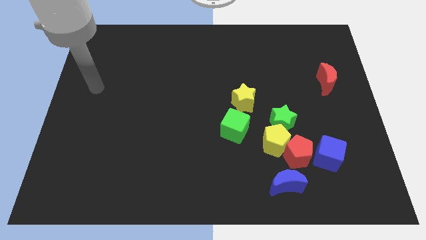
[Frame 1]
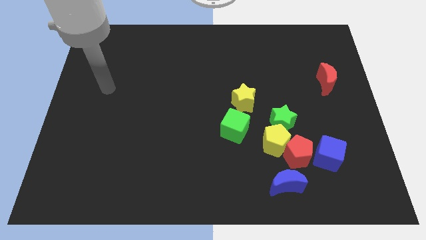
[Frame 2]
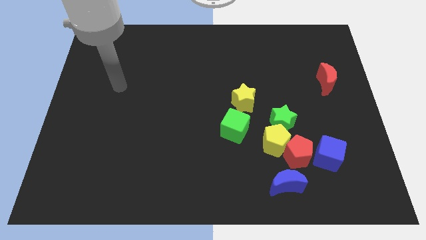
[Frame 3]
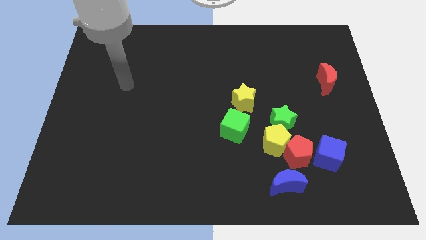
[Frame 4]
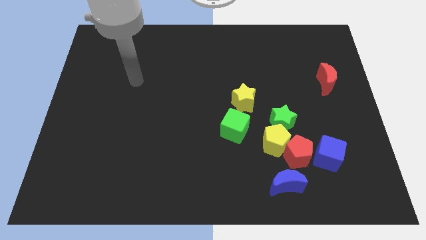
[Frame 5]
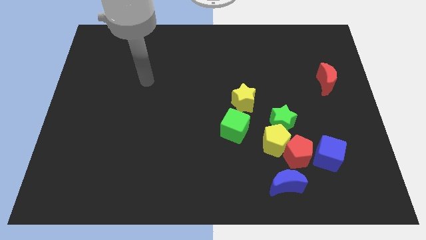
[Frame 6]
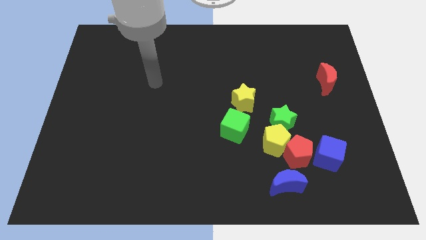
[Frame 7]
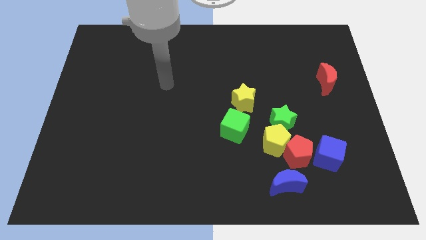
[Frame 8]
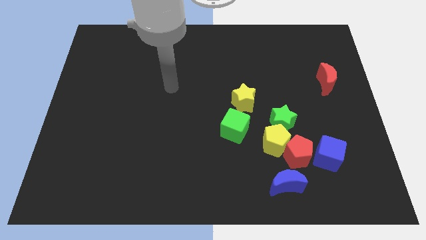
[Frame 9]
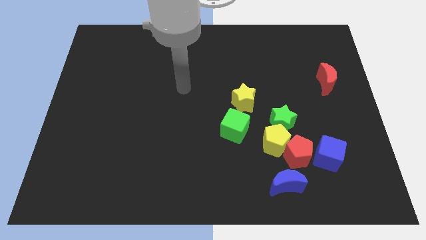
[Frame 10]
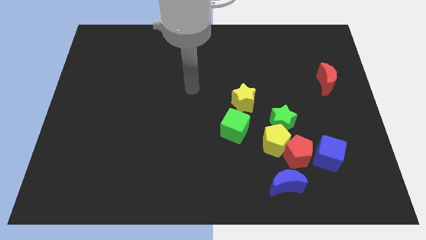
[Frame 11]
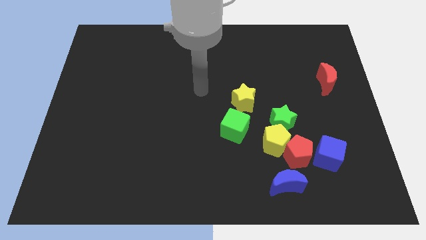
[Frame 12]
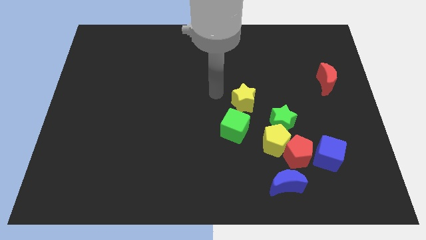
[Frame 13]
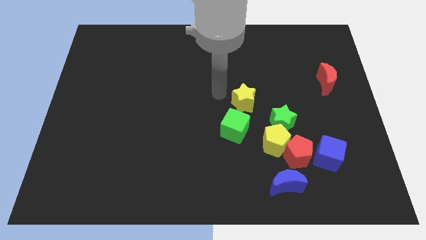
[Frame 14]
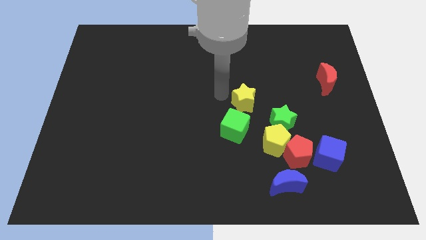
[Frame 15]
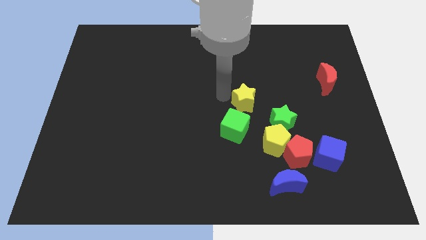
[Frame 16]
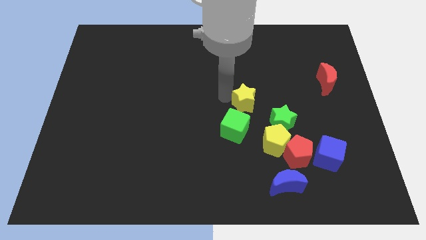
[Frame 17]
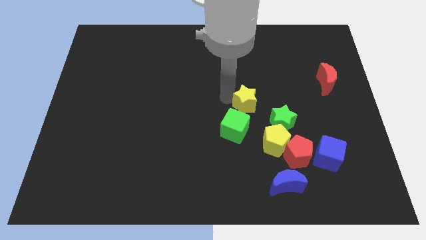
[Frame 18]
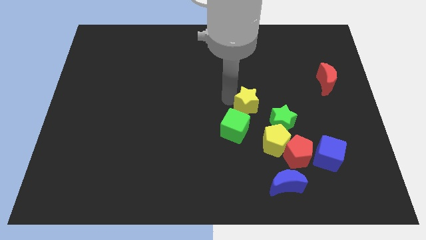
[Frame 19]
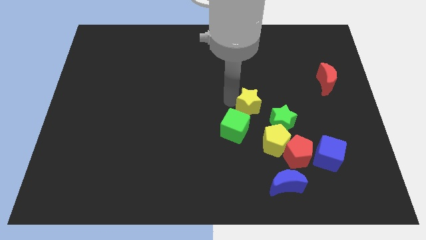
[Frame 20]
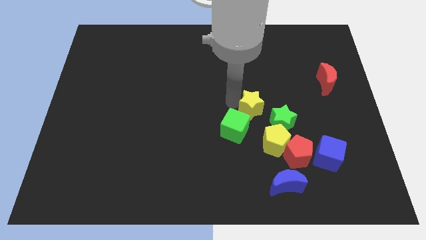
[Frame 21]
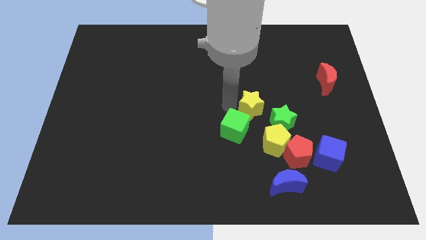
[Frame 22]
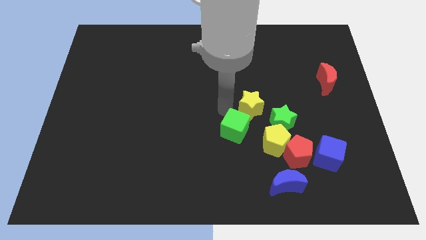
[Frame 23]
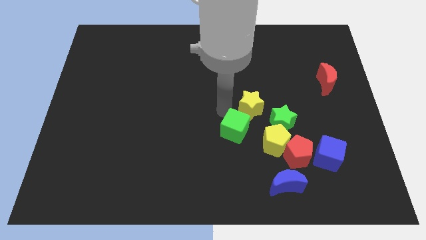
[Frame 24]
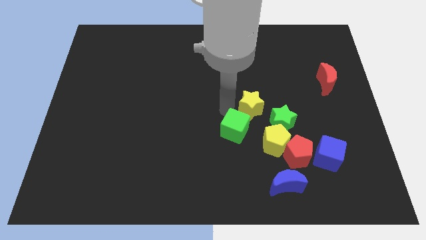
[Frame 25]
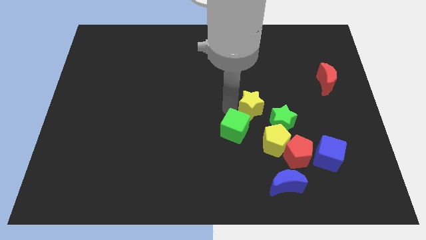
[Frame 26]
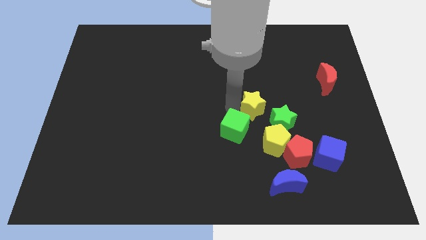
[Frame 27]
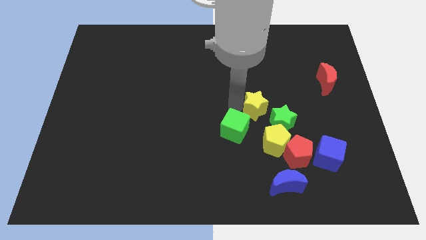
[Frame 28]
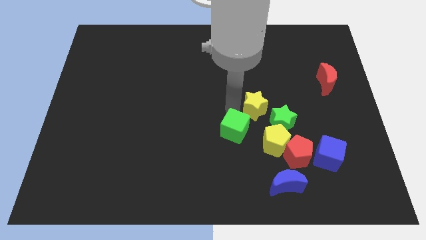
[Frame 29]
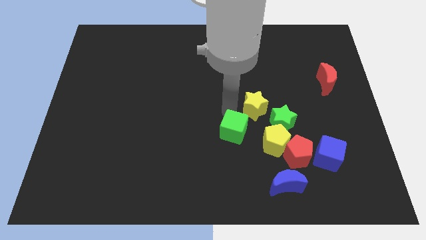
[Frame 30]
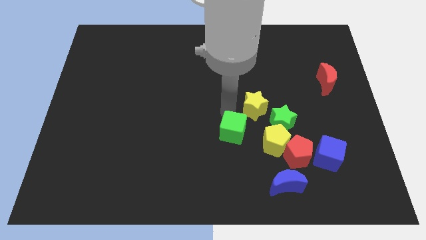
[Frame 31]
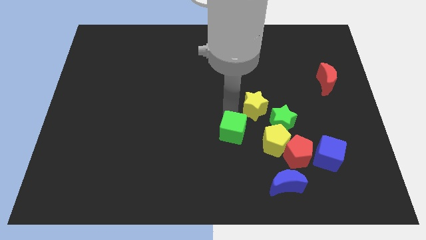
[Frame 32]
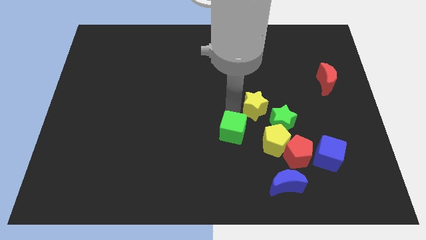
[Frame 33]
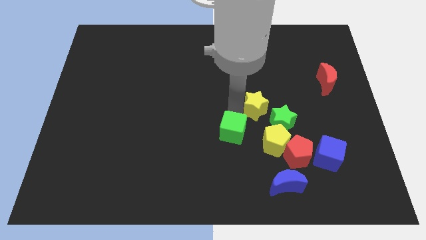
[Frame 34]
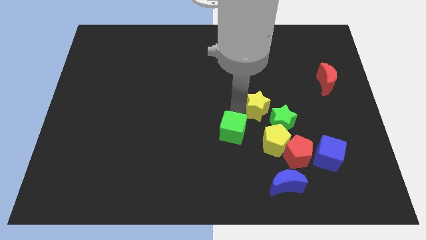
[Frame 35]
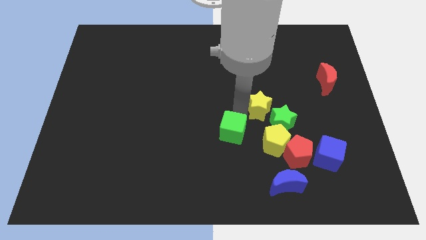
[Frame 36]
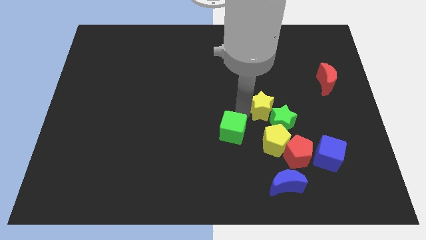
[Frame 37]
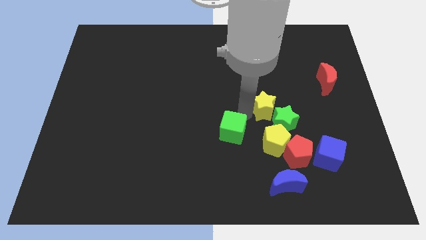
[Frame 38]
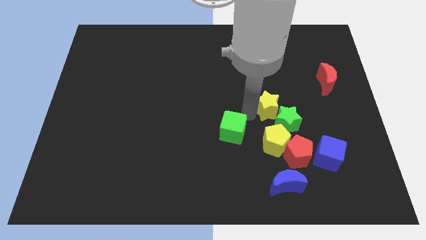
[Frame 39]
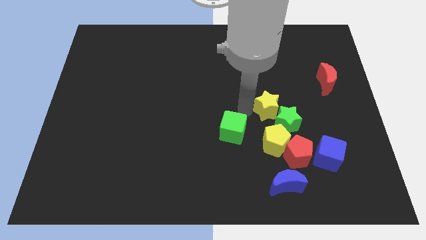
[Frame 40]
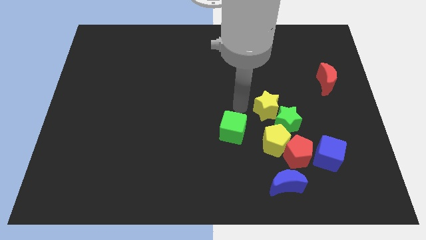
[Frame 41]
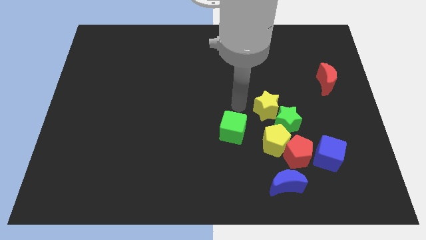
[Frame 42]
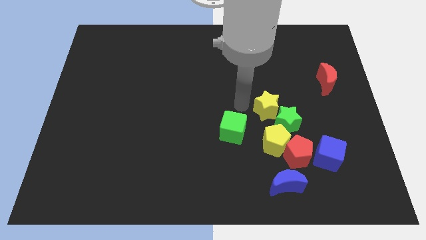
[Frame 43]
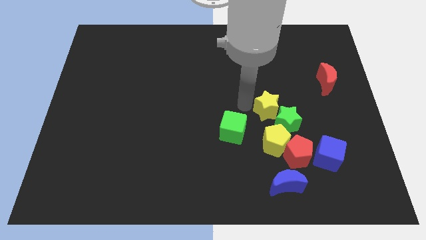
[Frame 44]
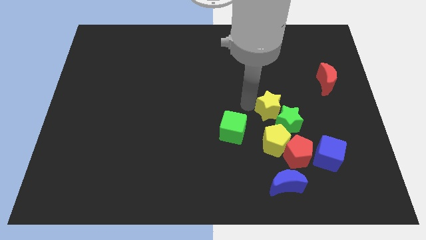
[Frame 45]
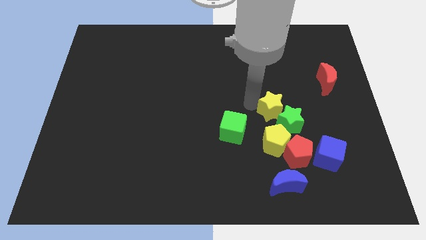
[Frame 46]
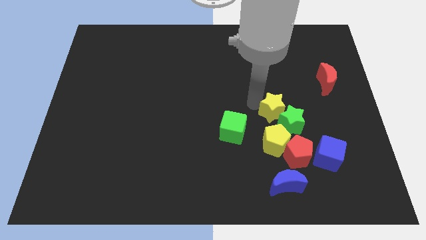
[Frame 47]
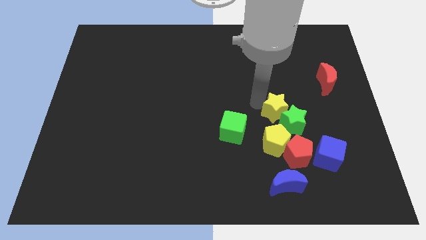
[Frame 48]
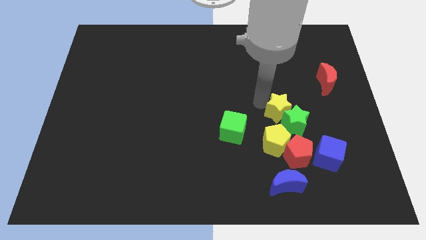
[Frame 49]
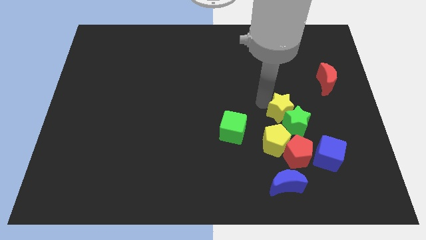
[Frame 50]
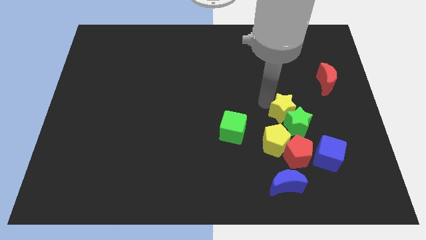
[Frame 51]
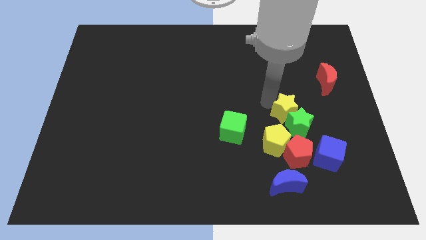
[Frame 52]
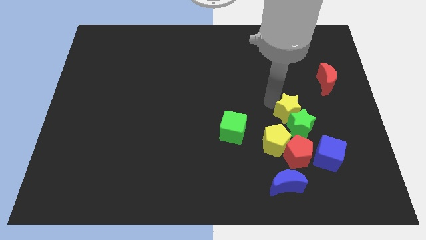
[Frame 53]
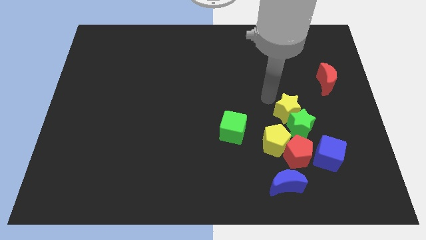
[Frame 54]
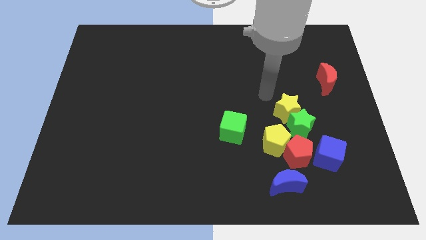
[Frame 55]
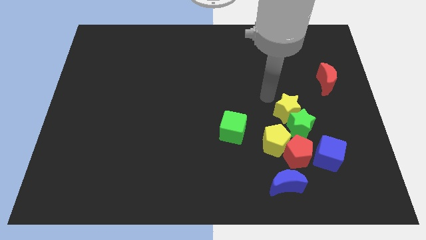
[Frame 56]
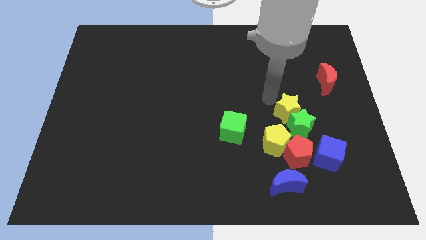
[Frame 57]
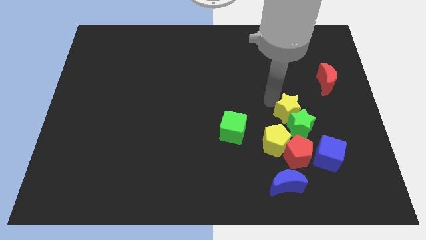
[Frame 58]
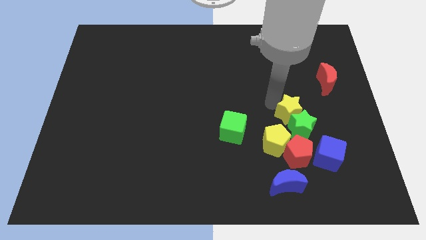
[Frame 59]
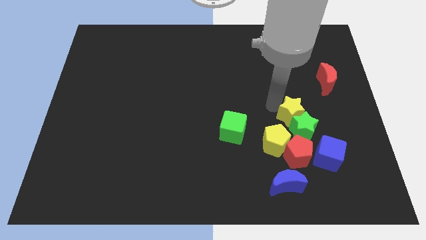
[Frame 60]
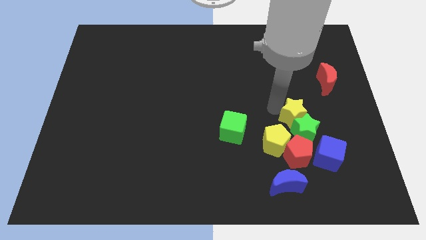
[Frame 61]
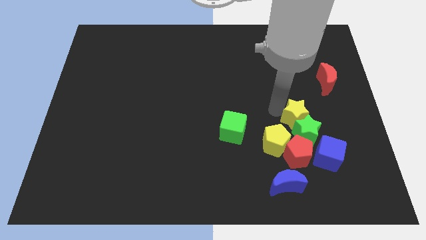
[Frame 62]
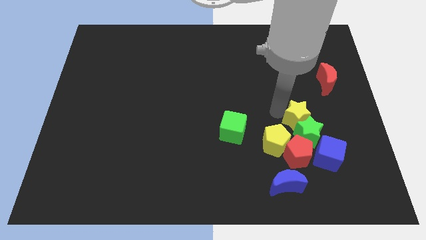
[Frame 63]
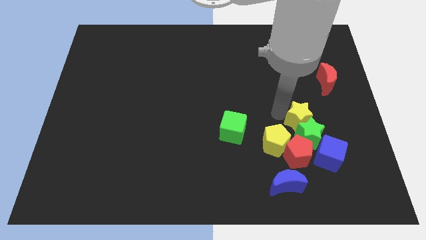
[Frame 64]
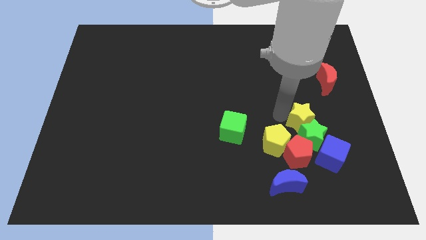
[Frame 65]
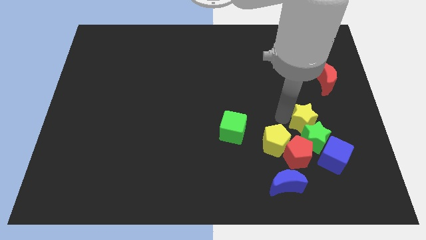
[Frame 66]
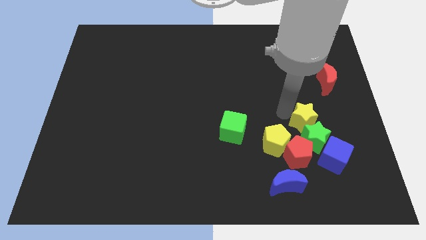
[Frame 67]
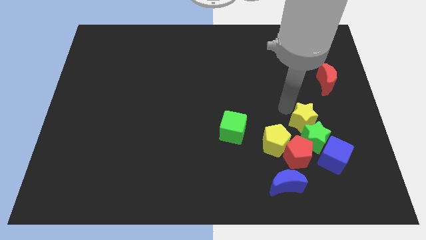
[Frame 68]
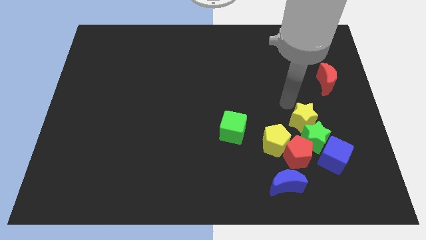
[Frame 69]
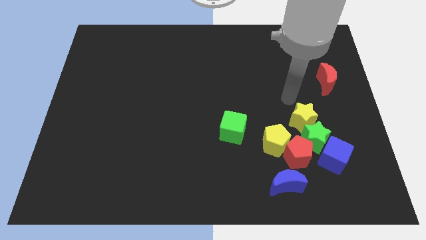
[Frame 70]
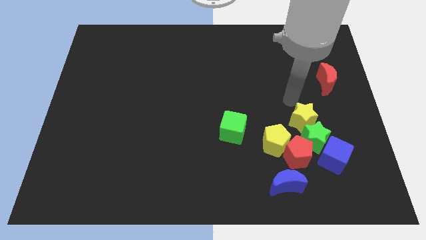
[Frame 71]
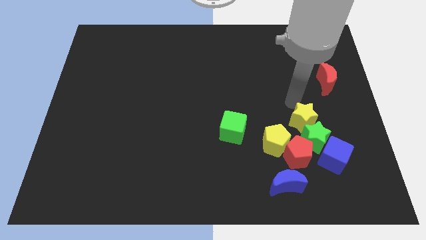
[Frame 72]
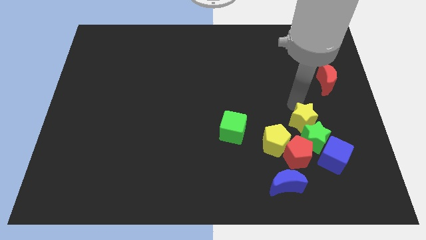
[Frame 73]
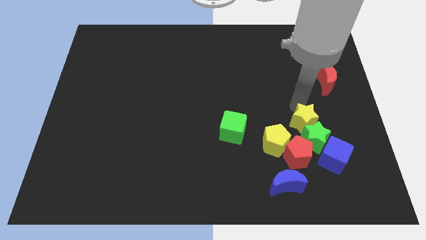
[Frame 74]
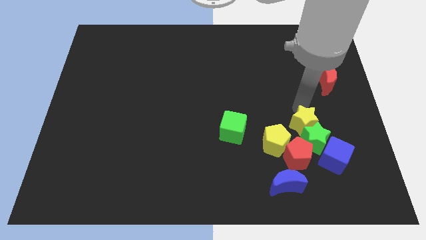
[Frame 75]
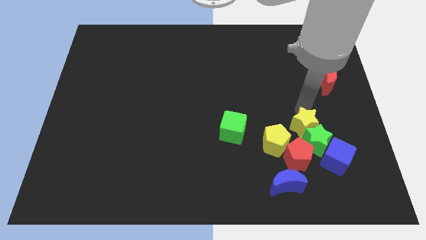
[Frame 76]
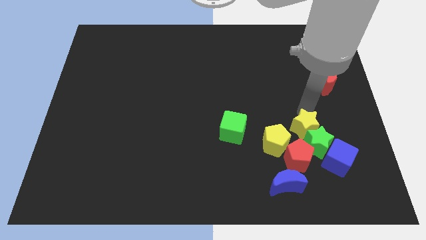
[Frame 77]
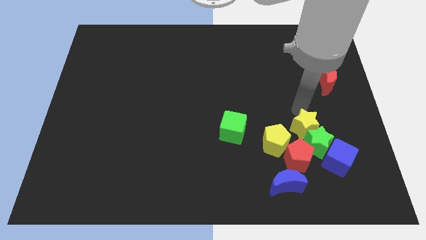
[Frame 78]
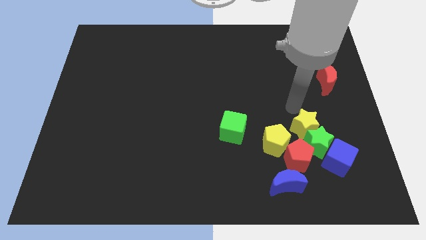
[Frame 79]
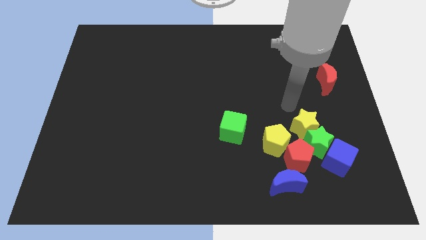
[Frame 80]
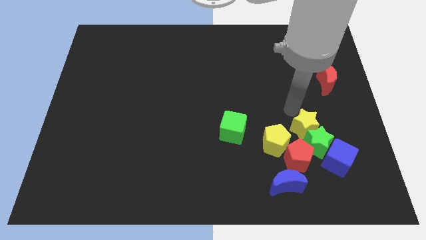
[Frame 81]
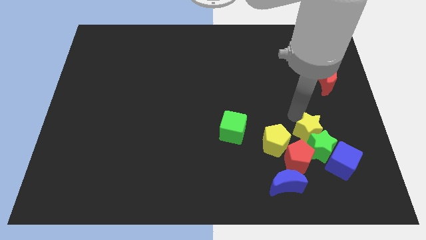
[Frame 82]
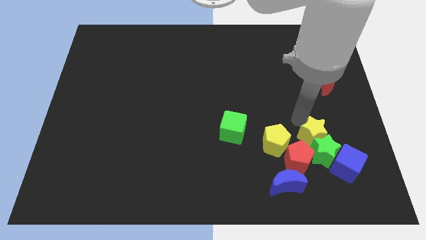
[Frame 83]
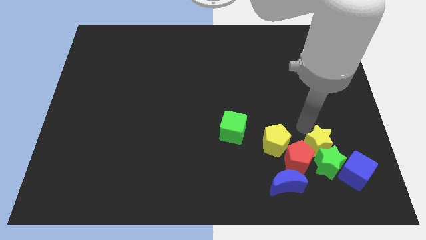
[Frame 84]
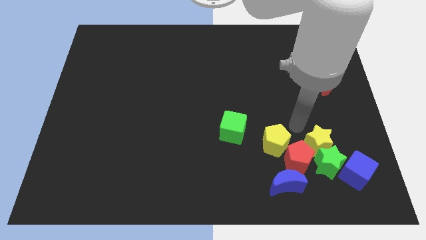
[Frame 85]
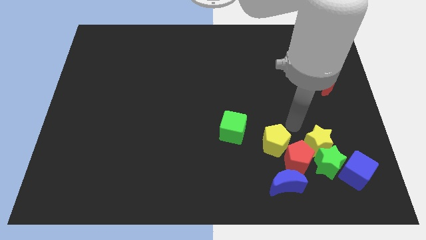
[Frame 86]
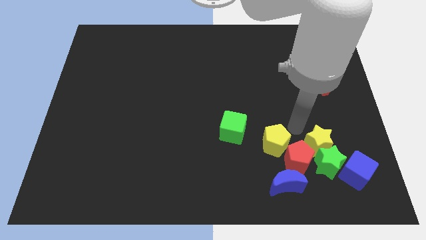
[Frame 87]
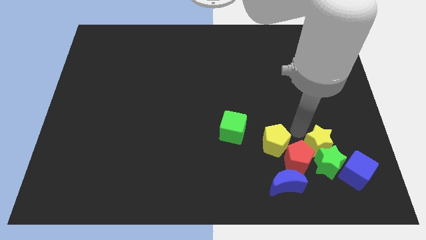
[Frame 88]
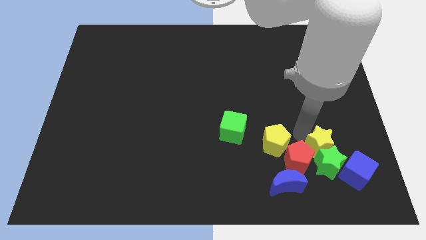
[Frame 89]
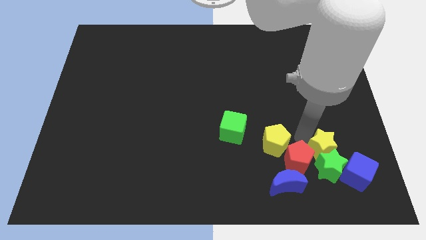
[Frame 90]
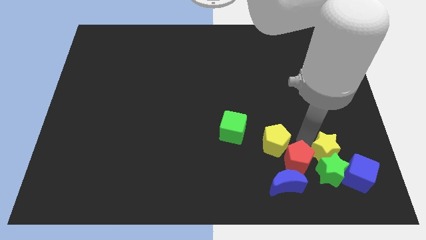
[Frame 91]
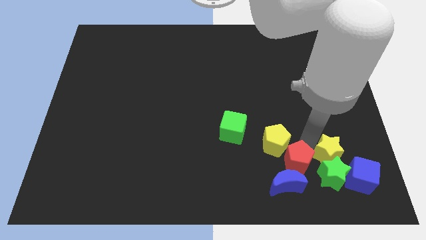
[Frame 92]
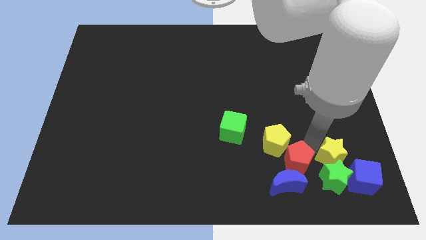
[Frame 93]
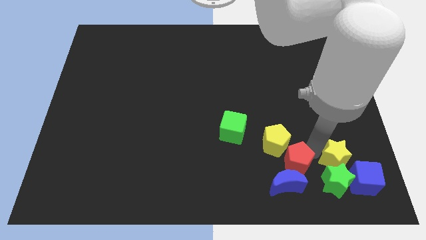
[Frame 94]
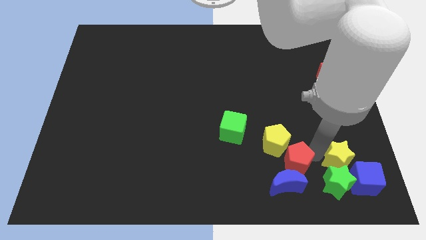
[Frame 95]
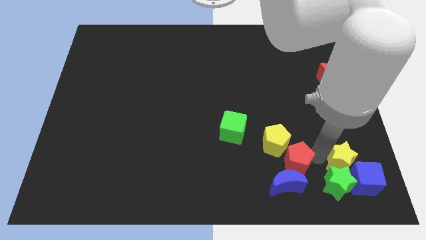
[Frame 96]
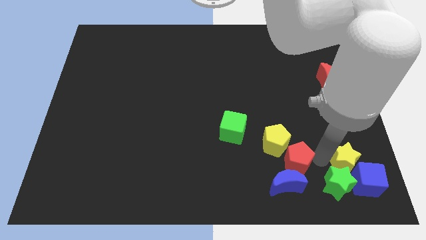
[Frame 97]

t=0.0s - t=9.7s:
put the yellow star close to the blue cube
